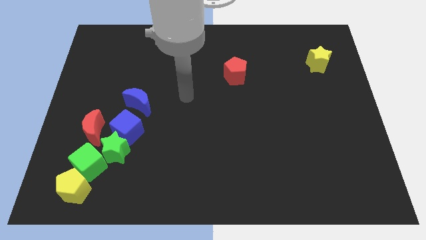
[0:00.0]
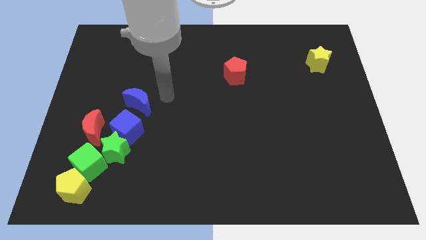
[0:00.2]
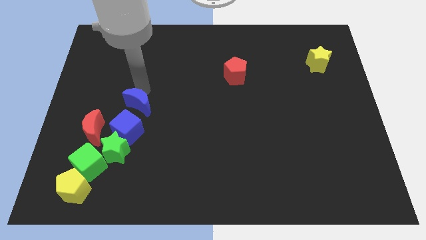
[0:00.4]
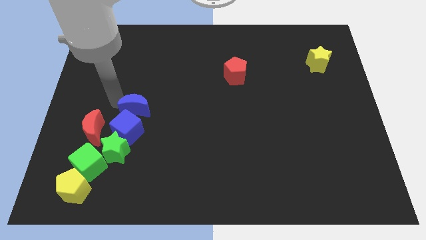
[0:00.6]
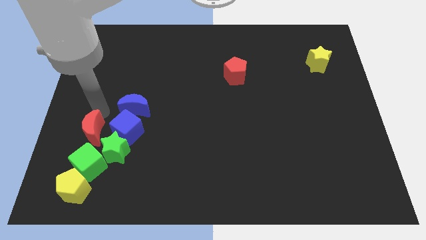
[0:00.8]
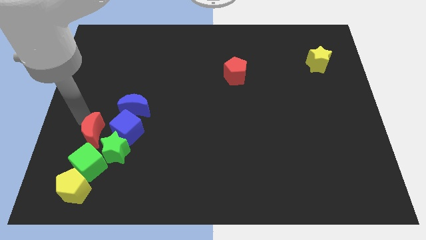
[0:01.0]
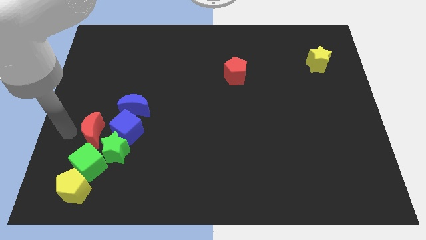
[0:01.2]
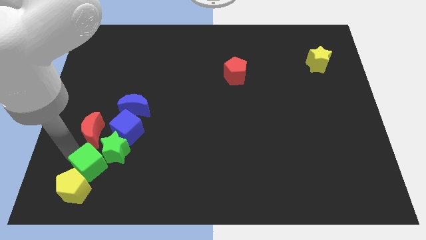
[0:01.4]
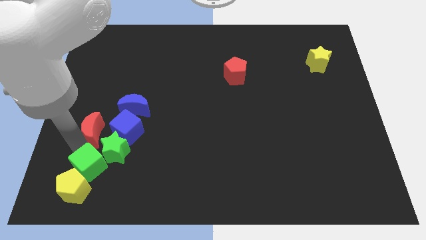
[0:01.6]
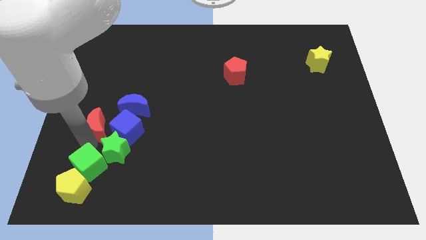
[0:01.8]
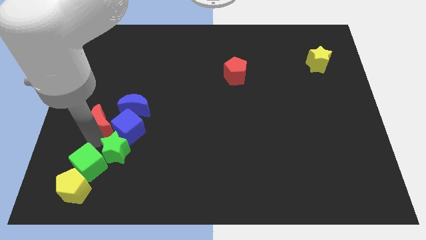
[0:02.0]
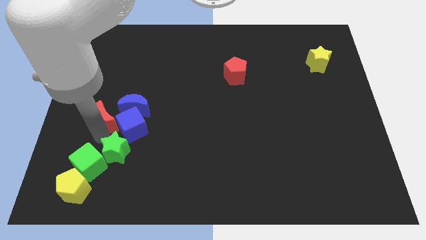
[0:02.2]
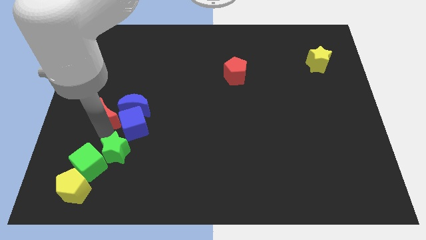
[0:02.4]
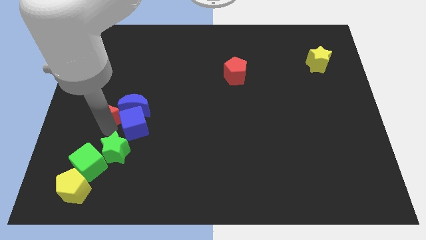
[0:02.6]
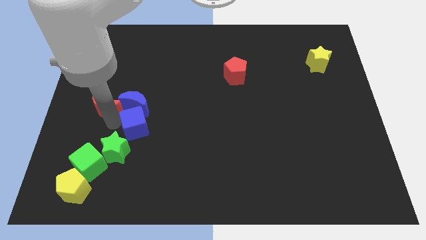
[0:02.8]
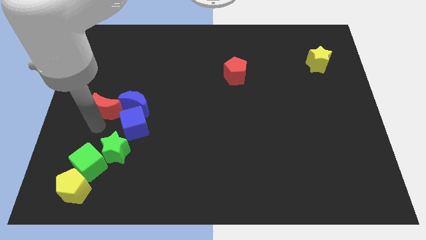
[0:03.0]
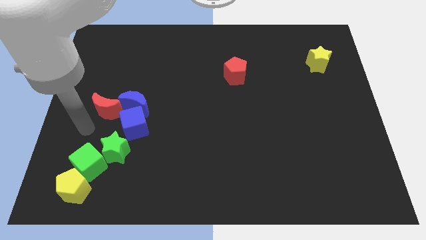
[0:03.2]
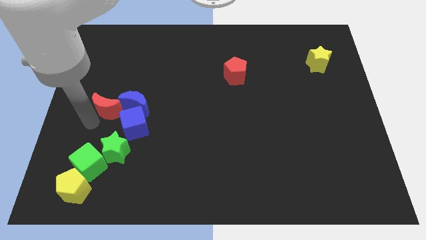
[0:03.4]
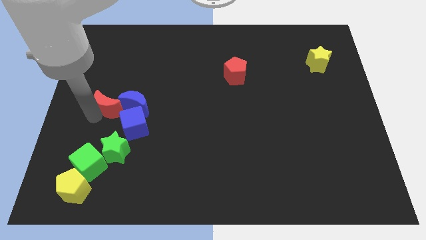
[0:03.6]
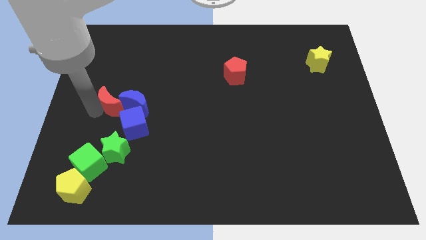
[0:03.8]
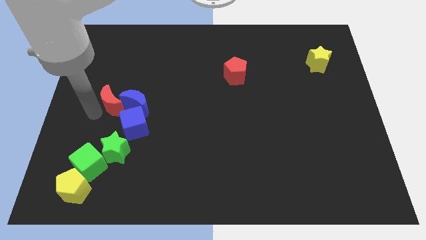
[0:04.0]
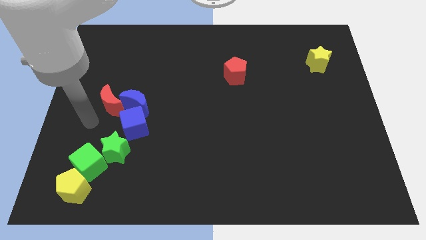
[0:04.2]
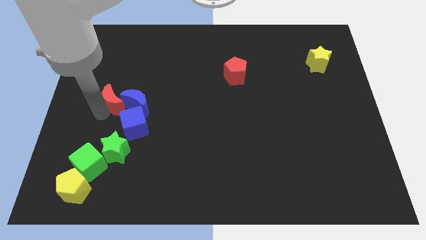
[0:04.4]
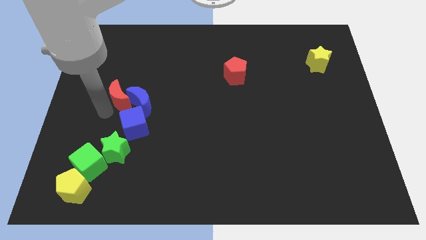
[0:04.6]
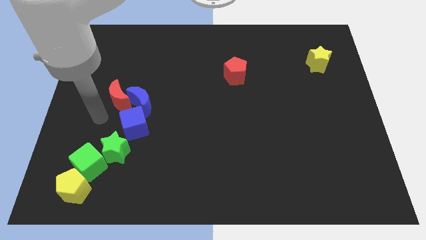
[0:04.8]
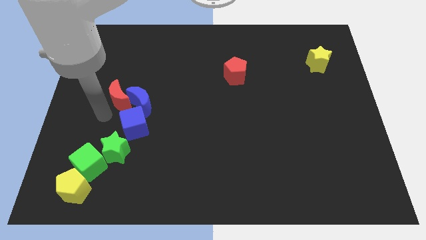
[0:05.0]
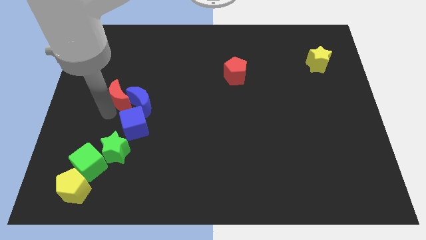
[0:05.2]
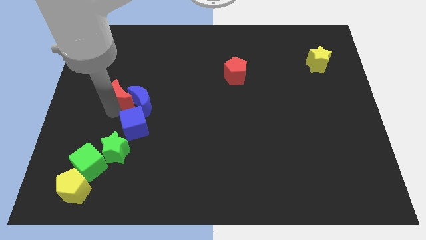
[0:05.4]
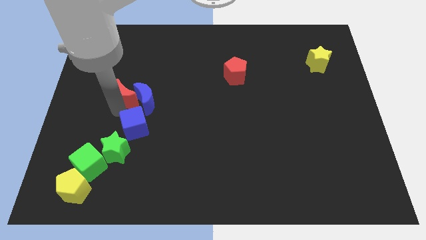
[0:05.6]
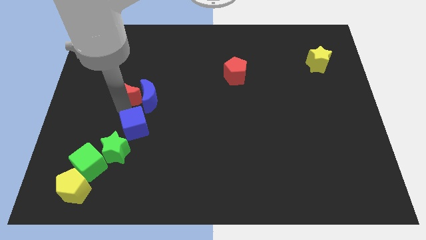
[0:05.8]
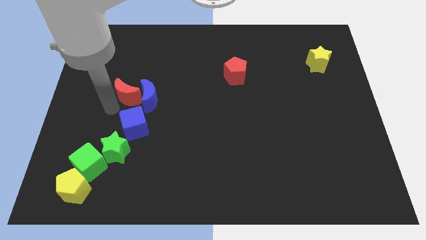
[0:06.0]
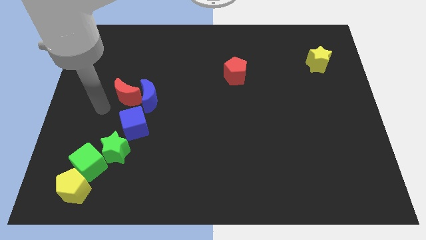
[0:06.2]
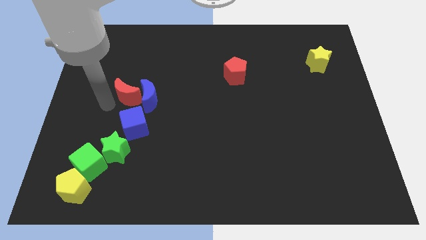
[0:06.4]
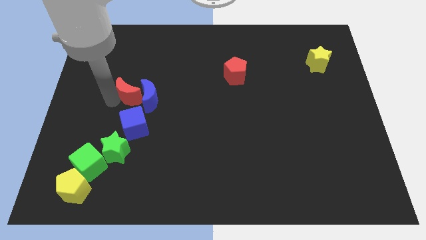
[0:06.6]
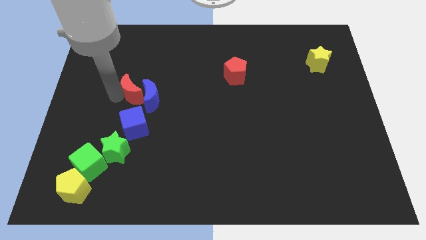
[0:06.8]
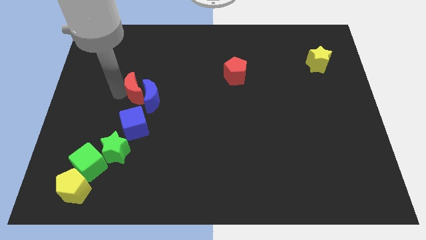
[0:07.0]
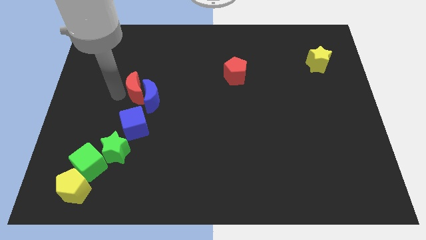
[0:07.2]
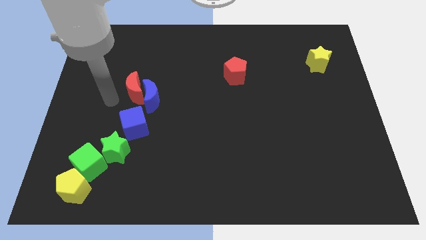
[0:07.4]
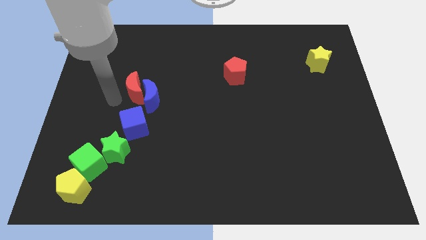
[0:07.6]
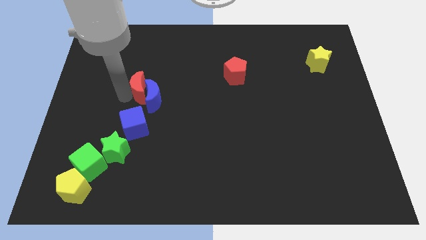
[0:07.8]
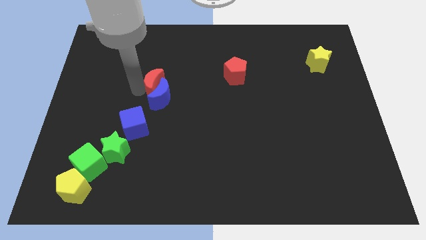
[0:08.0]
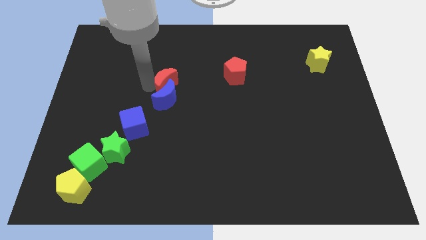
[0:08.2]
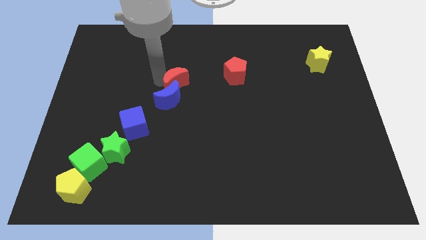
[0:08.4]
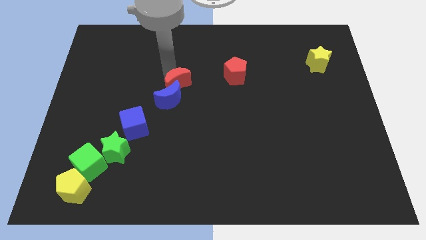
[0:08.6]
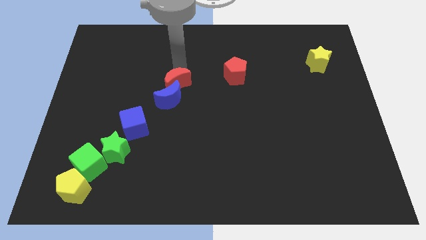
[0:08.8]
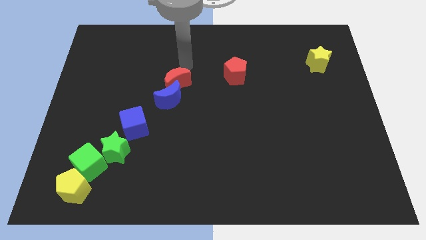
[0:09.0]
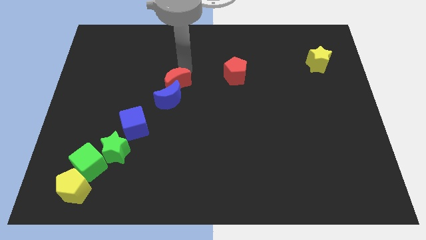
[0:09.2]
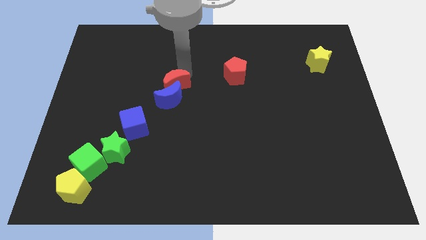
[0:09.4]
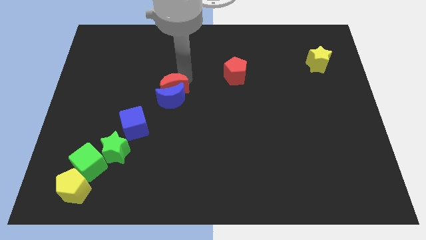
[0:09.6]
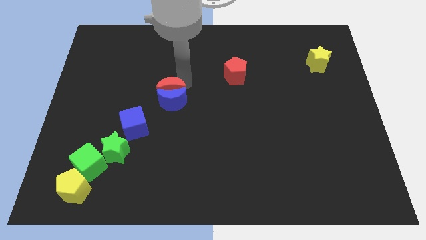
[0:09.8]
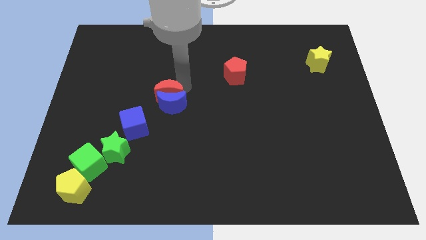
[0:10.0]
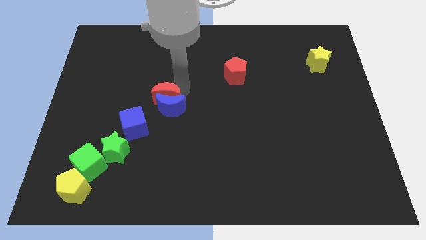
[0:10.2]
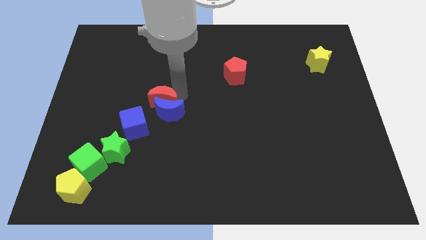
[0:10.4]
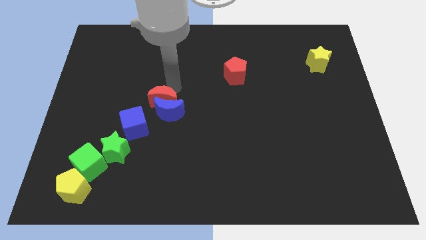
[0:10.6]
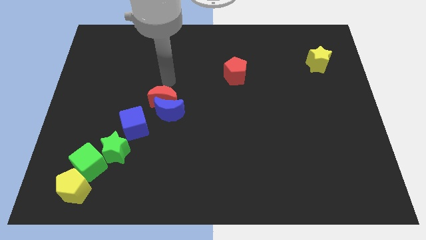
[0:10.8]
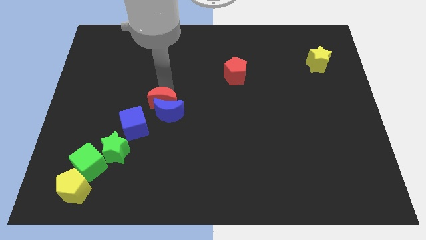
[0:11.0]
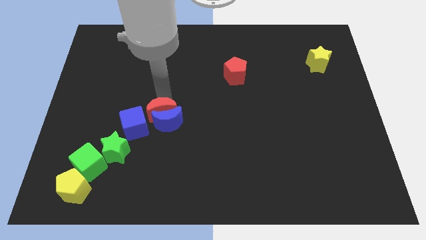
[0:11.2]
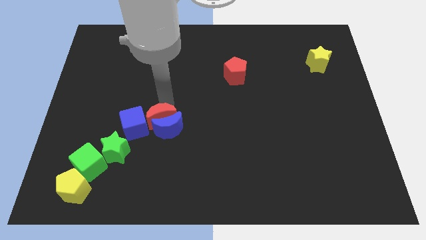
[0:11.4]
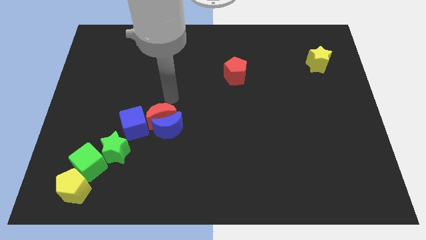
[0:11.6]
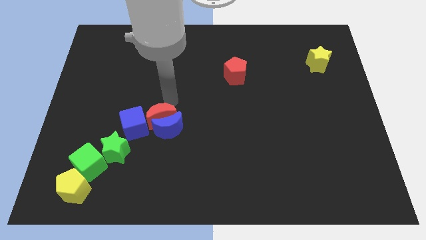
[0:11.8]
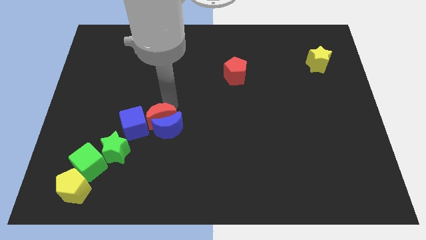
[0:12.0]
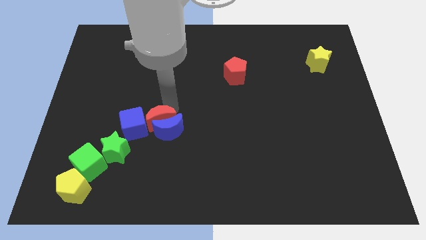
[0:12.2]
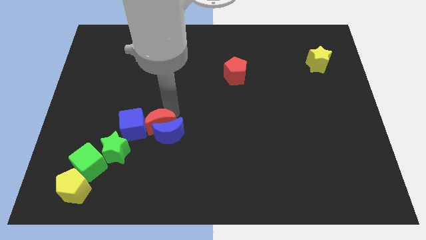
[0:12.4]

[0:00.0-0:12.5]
put the red moon to the bottom right side of the blue cube

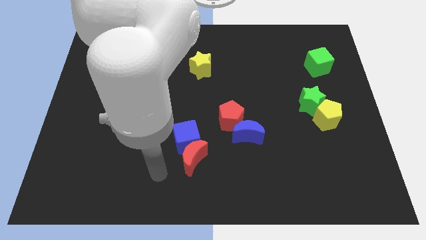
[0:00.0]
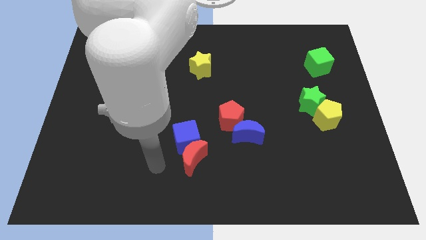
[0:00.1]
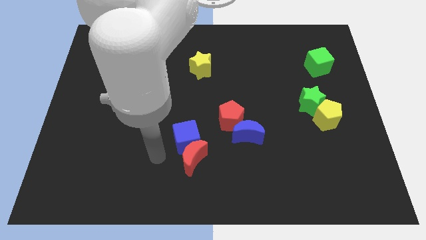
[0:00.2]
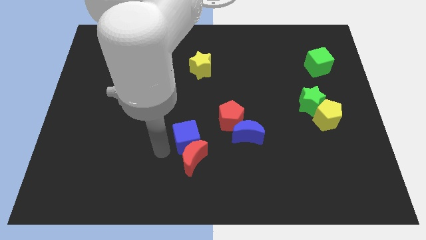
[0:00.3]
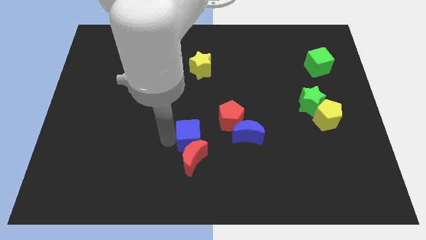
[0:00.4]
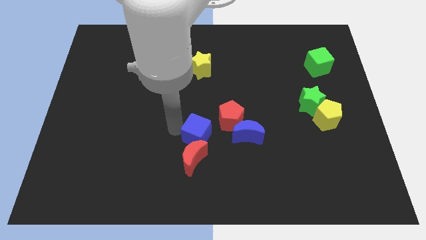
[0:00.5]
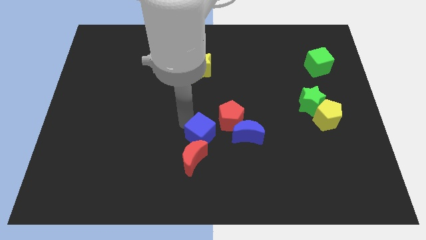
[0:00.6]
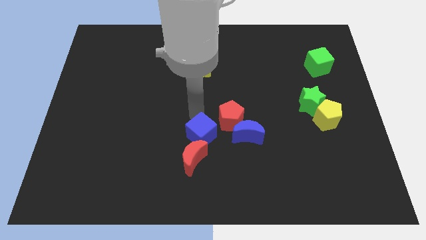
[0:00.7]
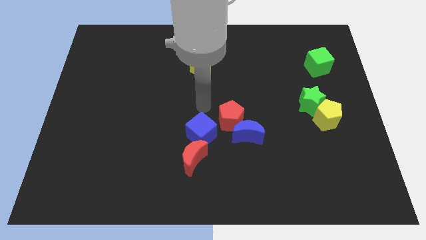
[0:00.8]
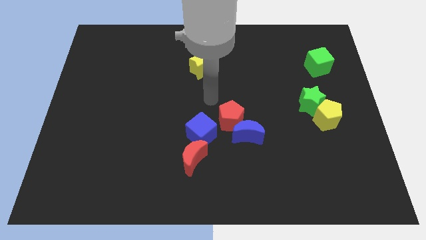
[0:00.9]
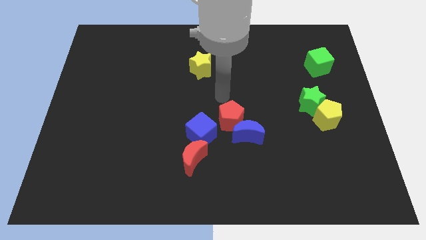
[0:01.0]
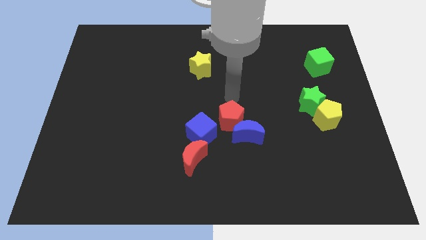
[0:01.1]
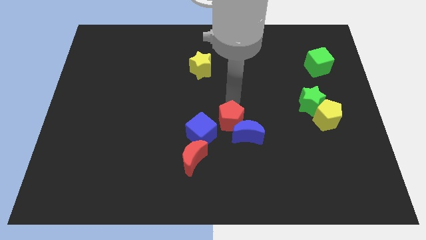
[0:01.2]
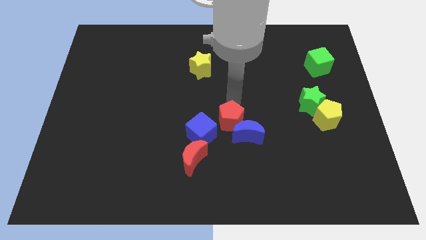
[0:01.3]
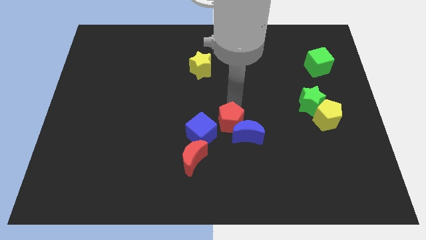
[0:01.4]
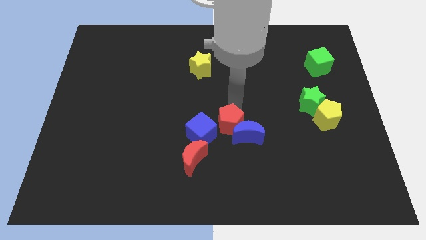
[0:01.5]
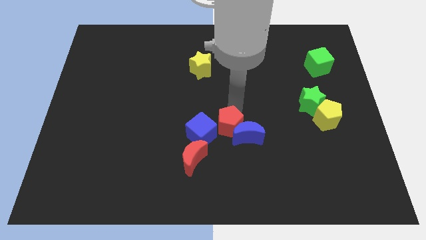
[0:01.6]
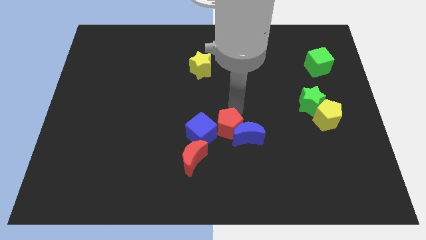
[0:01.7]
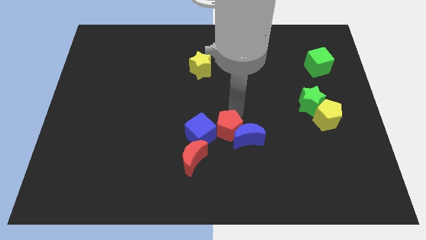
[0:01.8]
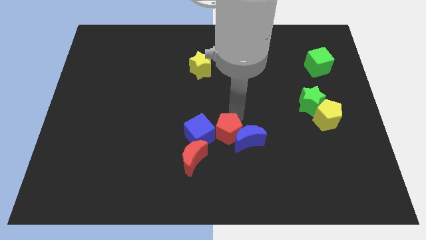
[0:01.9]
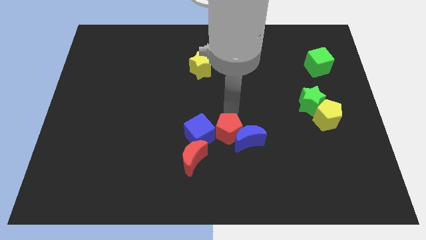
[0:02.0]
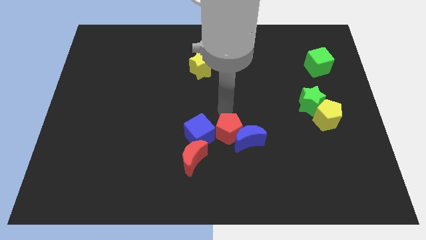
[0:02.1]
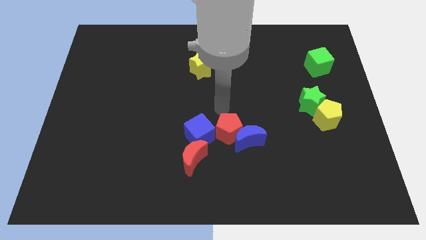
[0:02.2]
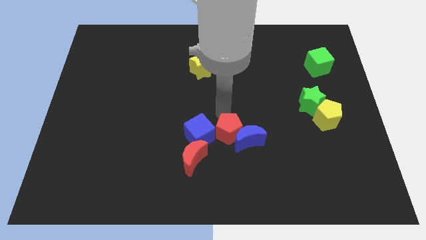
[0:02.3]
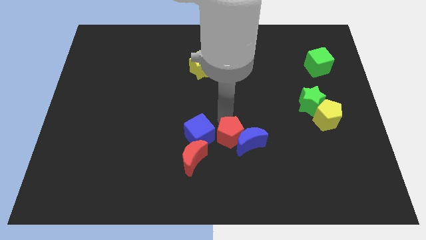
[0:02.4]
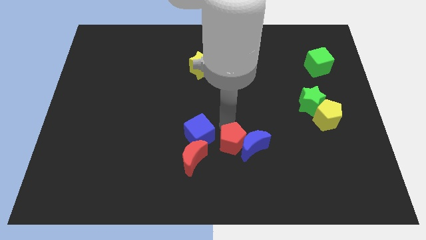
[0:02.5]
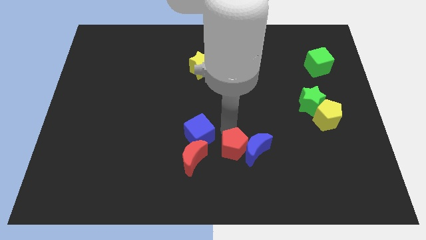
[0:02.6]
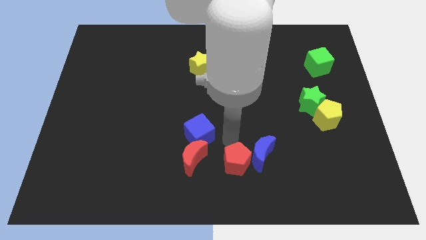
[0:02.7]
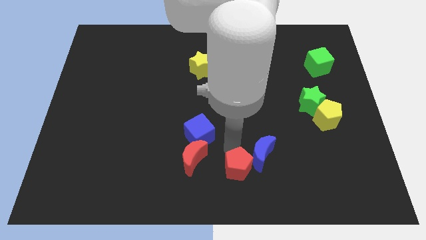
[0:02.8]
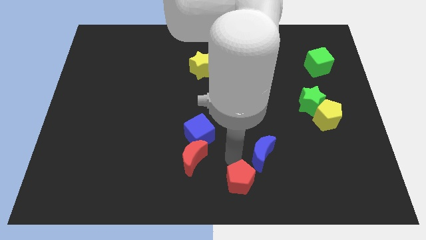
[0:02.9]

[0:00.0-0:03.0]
put the red pentagon to the bottom of the blue moon
